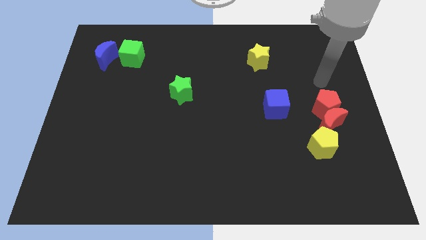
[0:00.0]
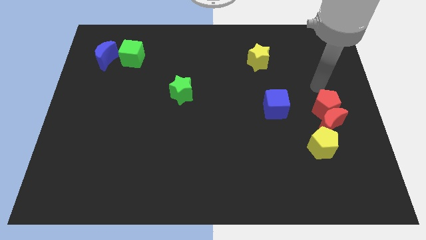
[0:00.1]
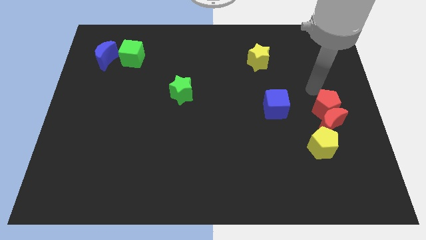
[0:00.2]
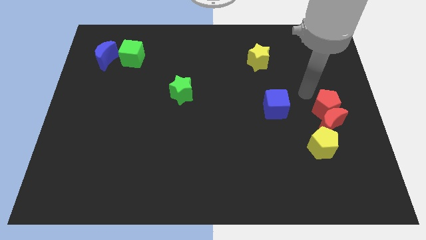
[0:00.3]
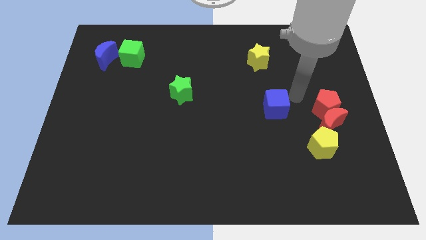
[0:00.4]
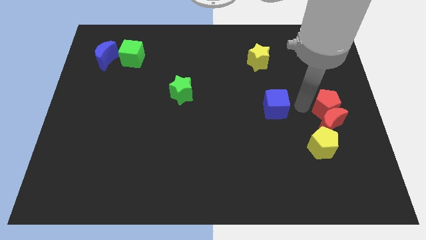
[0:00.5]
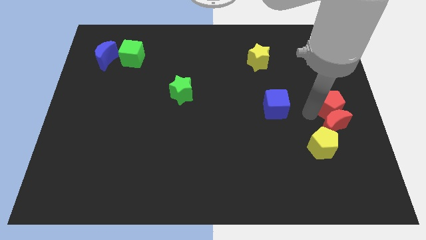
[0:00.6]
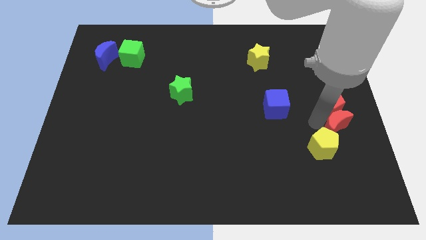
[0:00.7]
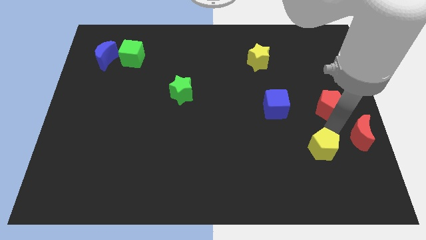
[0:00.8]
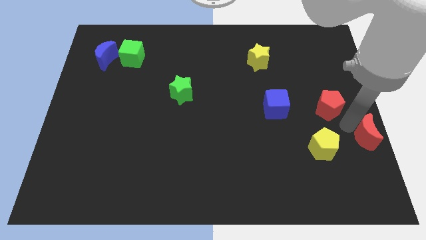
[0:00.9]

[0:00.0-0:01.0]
move the red pentagon away from the red moon

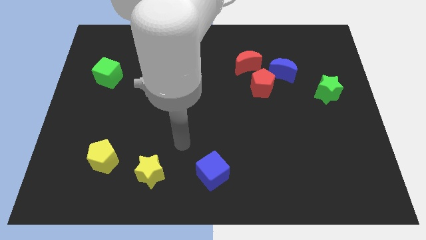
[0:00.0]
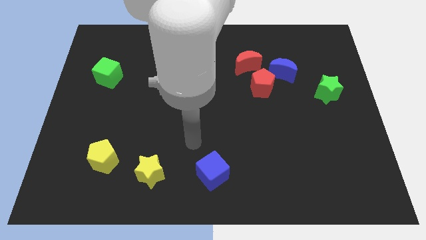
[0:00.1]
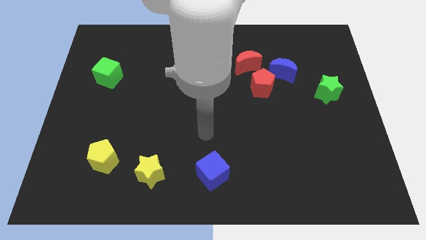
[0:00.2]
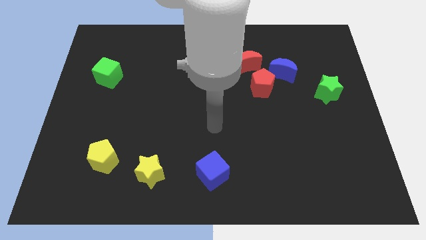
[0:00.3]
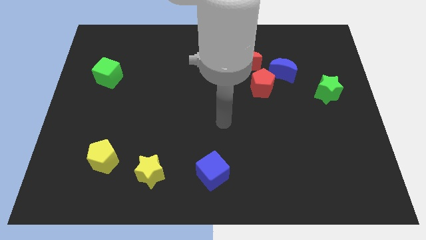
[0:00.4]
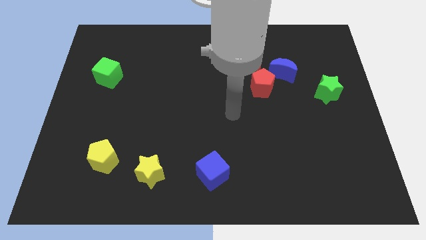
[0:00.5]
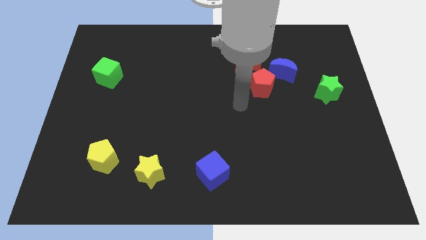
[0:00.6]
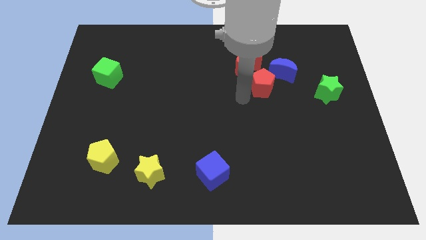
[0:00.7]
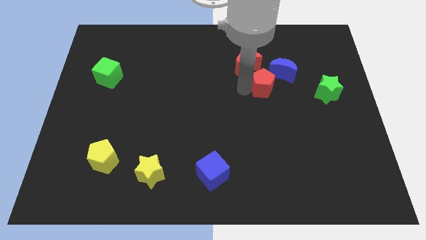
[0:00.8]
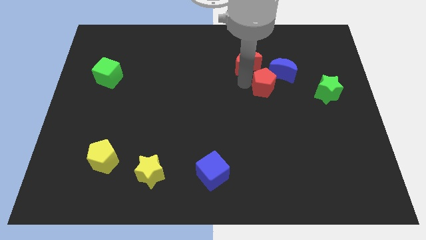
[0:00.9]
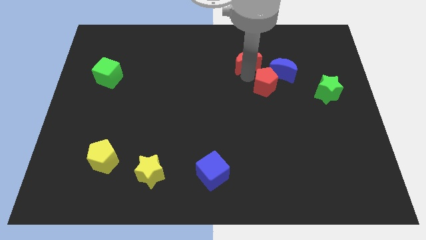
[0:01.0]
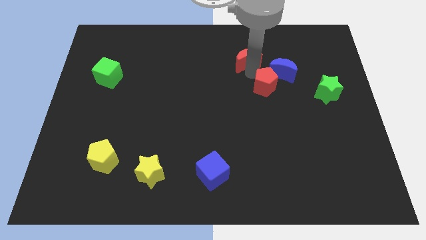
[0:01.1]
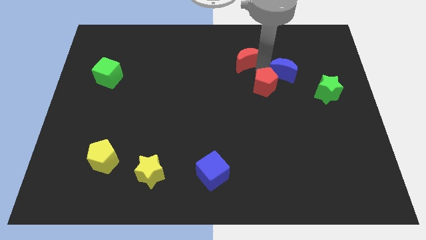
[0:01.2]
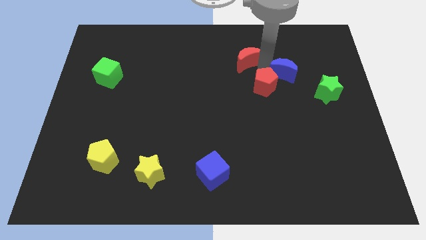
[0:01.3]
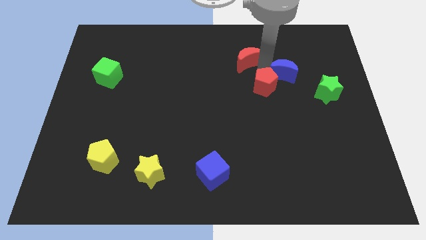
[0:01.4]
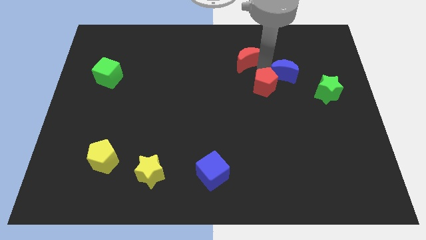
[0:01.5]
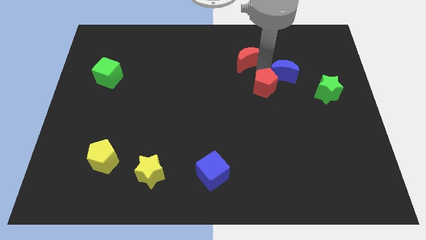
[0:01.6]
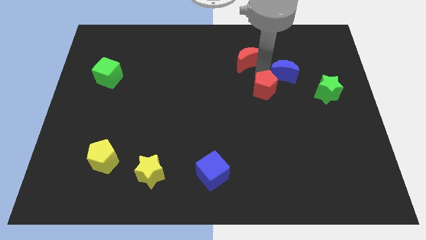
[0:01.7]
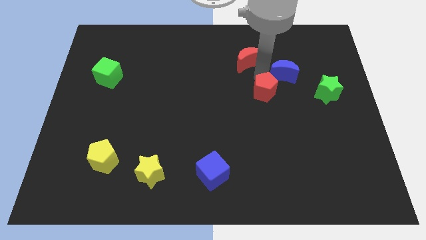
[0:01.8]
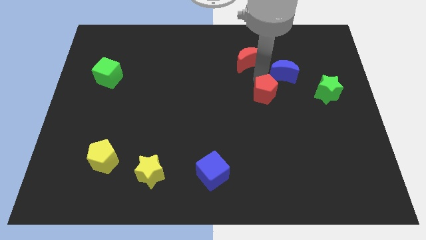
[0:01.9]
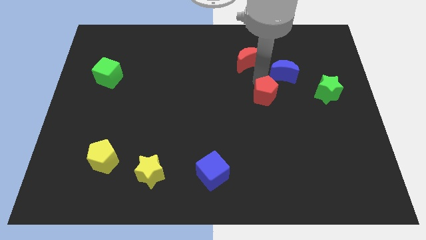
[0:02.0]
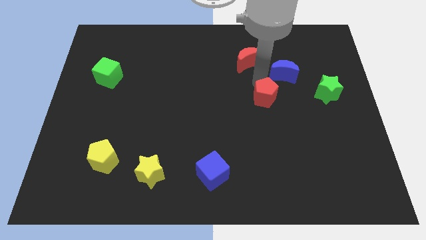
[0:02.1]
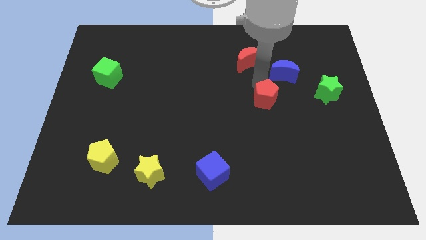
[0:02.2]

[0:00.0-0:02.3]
pull the red pentagon apart from the blue moon and red moon

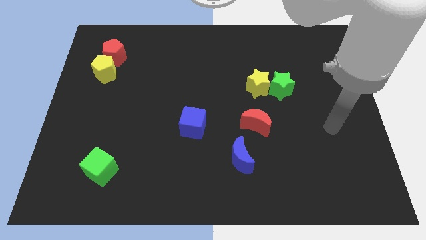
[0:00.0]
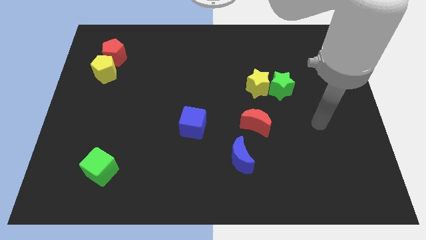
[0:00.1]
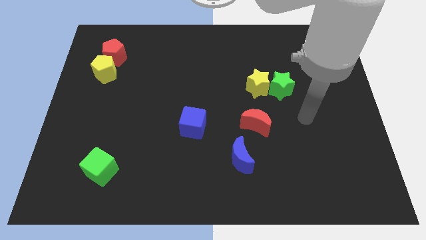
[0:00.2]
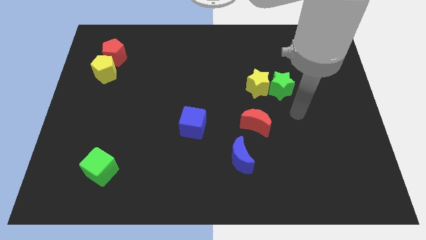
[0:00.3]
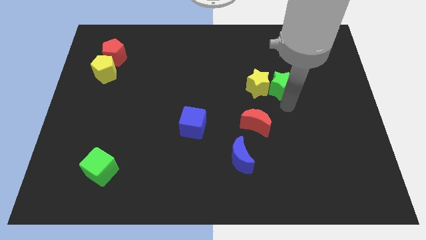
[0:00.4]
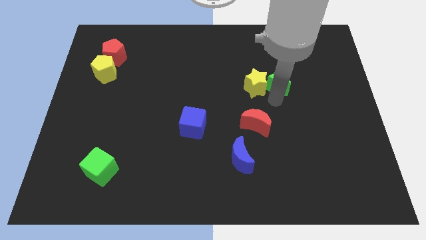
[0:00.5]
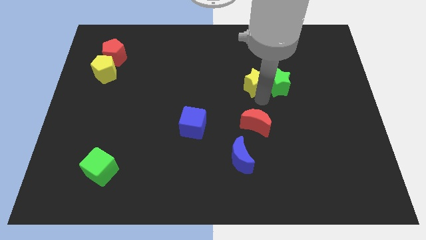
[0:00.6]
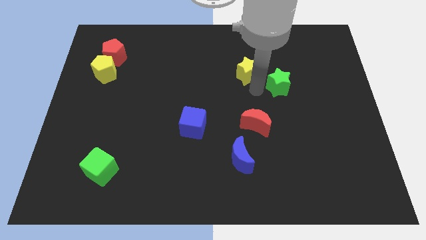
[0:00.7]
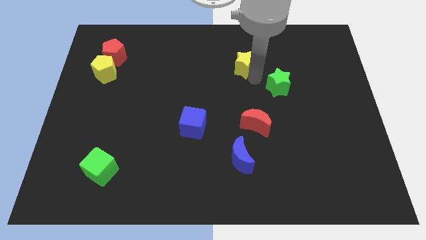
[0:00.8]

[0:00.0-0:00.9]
separate the green star from the yellow star

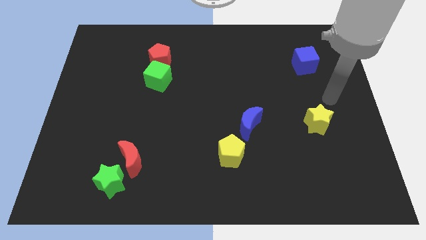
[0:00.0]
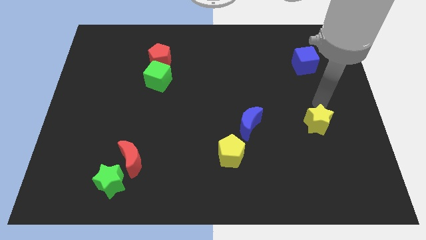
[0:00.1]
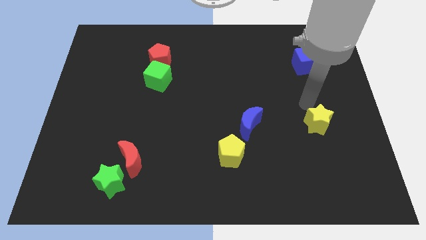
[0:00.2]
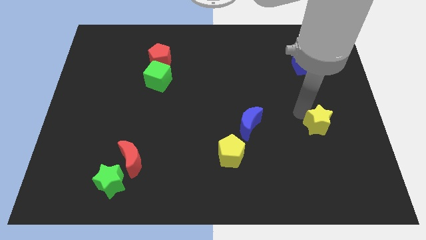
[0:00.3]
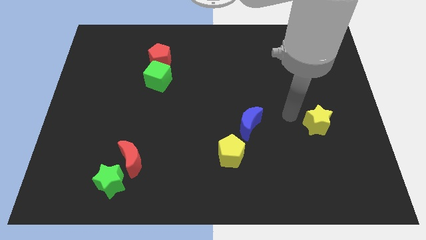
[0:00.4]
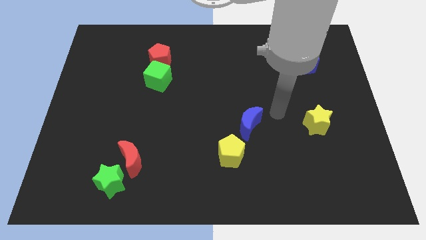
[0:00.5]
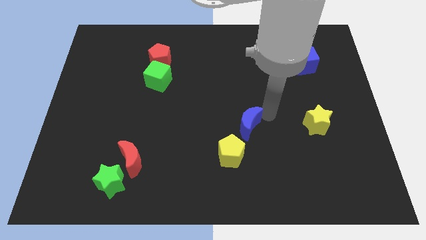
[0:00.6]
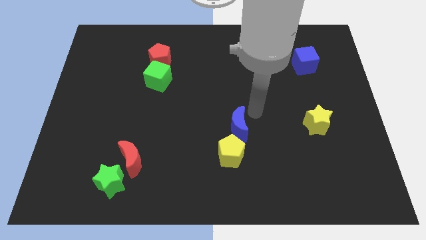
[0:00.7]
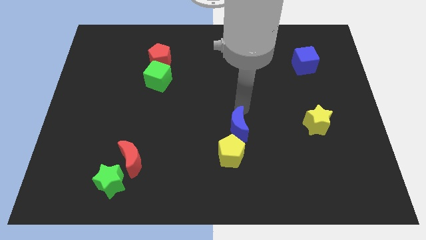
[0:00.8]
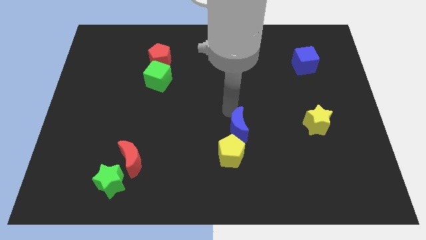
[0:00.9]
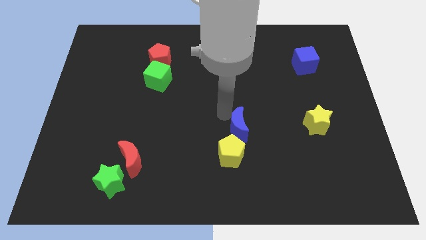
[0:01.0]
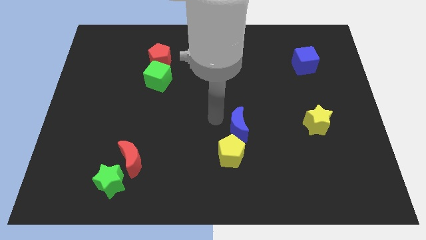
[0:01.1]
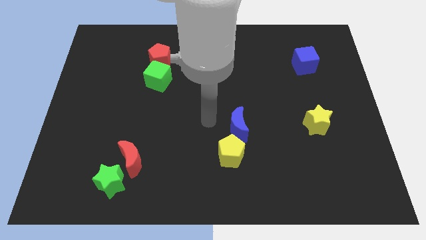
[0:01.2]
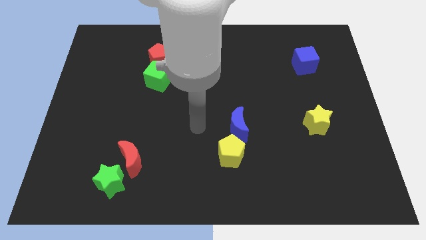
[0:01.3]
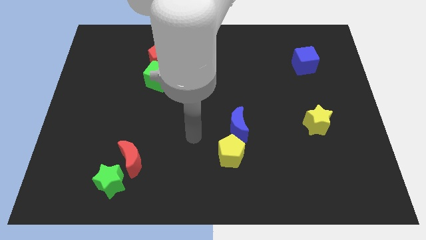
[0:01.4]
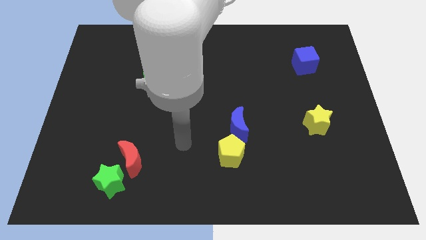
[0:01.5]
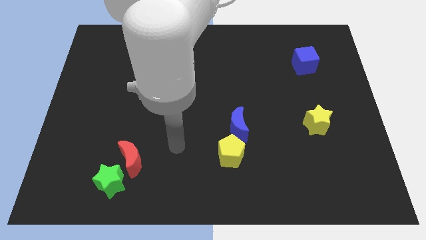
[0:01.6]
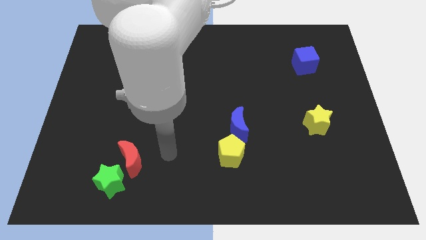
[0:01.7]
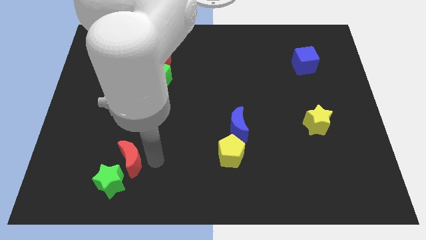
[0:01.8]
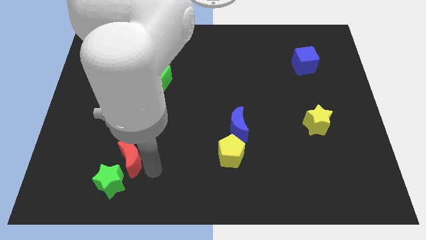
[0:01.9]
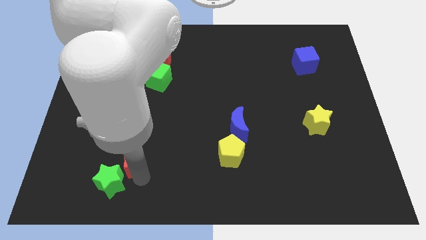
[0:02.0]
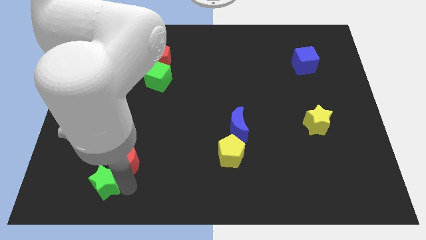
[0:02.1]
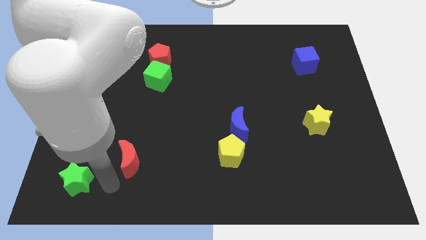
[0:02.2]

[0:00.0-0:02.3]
move the red moon away from the green star

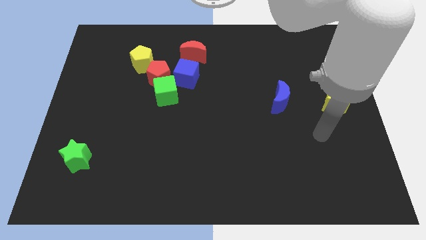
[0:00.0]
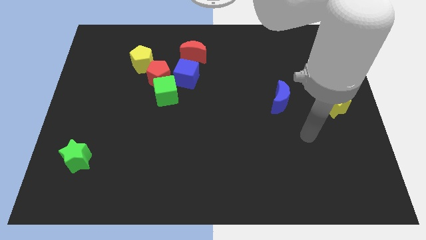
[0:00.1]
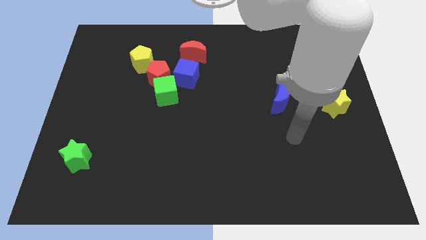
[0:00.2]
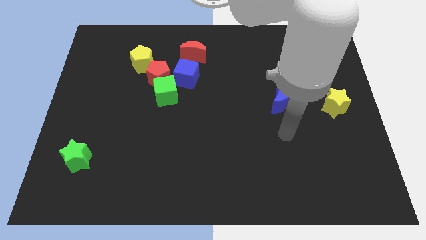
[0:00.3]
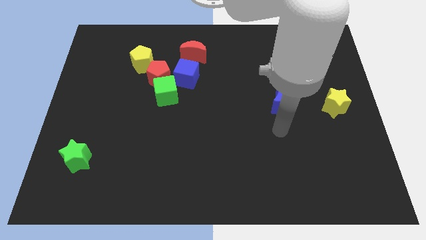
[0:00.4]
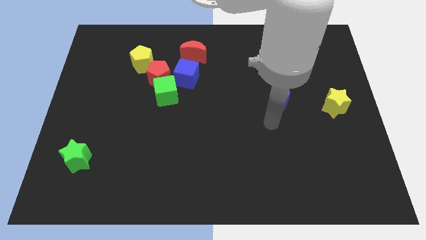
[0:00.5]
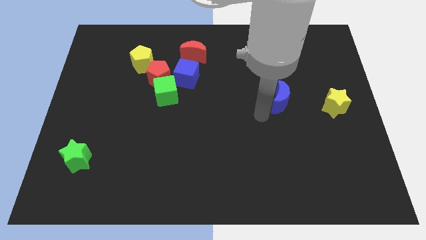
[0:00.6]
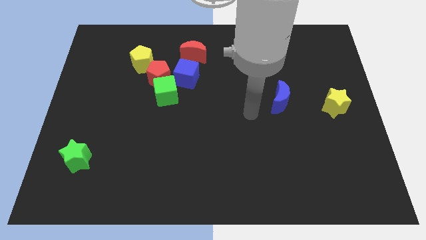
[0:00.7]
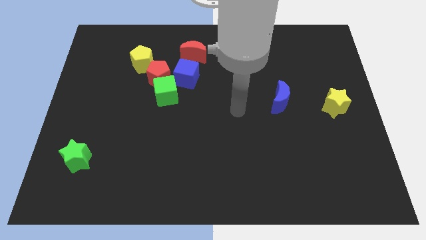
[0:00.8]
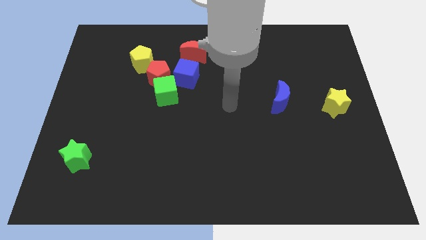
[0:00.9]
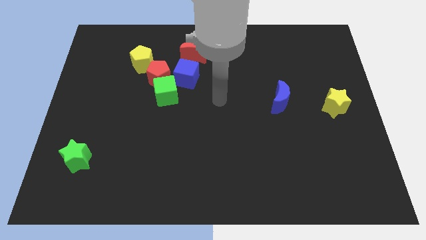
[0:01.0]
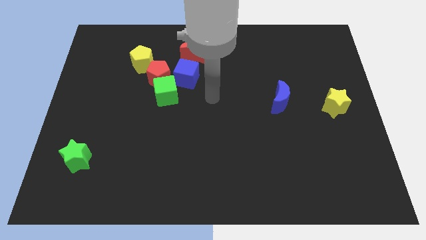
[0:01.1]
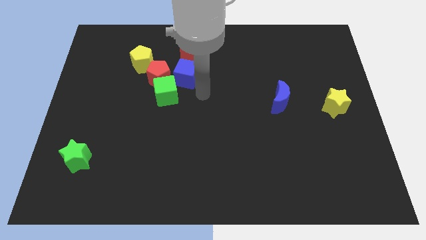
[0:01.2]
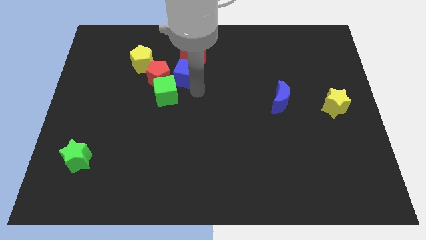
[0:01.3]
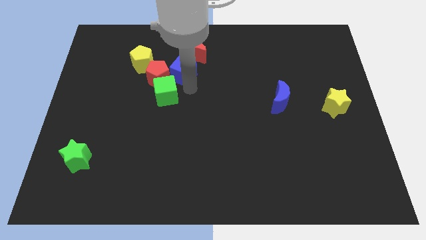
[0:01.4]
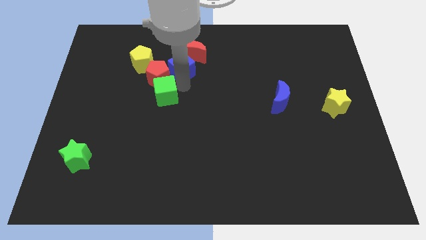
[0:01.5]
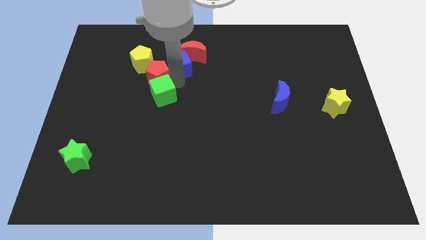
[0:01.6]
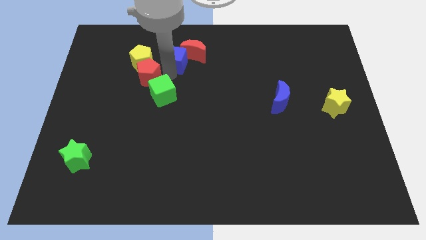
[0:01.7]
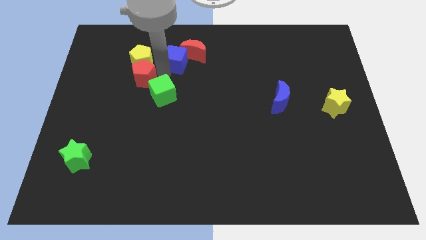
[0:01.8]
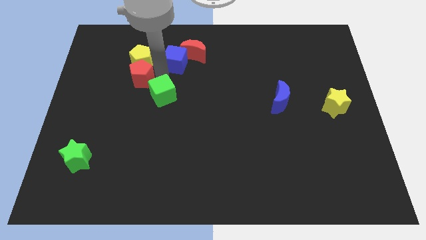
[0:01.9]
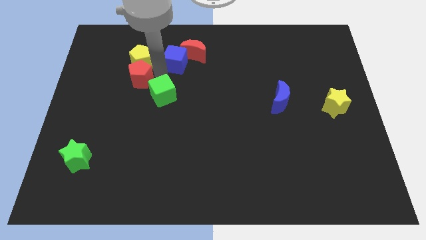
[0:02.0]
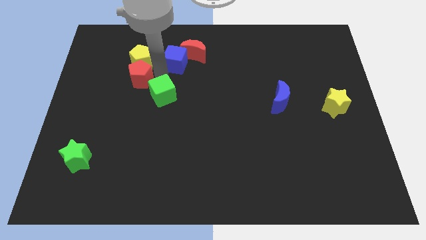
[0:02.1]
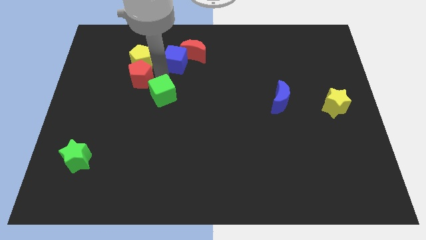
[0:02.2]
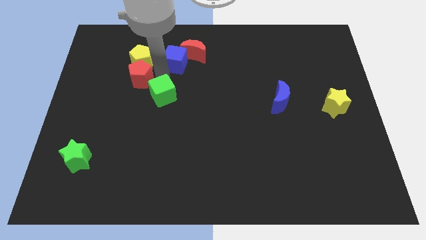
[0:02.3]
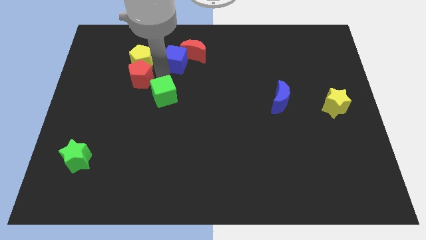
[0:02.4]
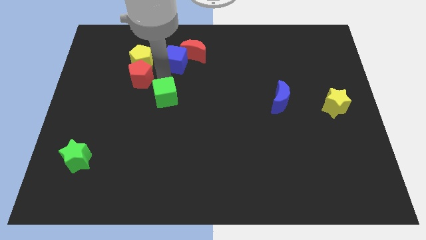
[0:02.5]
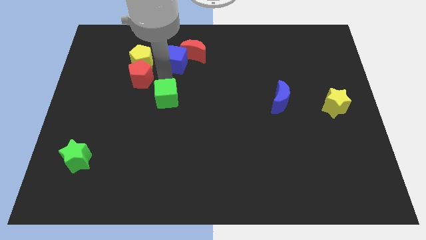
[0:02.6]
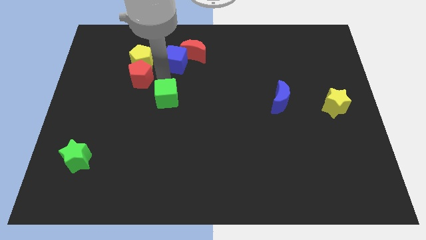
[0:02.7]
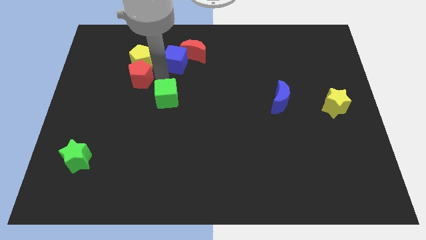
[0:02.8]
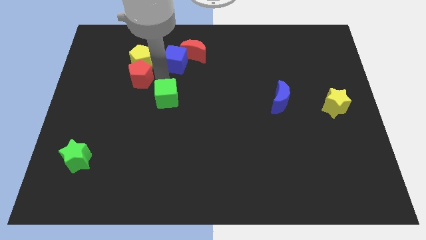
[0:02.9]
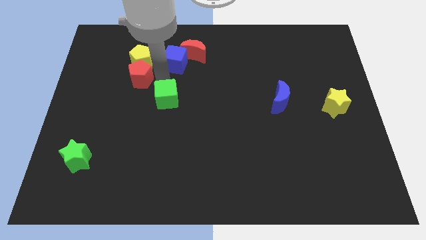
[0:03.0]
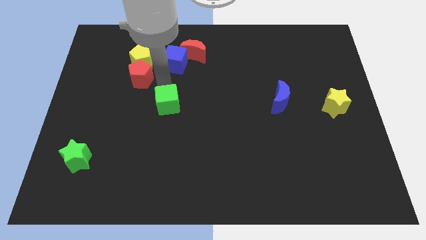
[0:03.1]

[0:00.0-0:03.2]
separate the green cube from the red pentagon and blue cube
